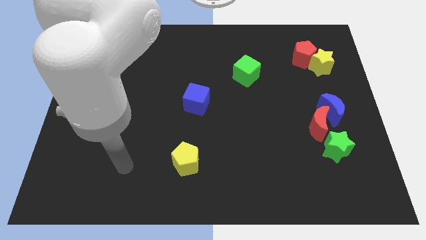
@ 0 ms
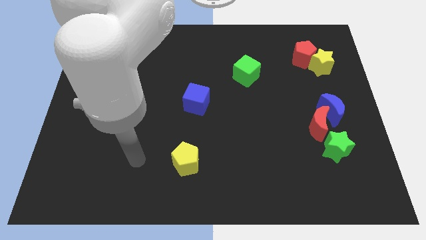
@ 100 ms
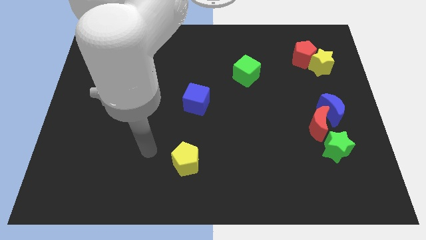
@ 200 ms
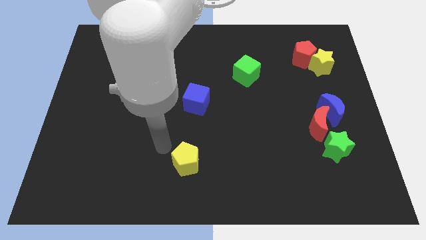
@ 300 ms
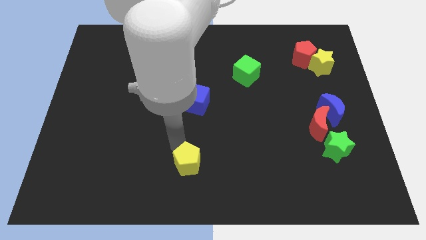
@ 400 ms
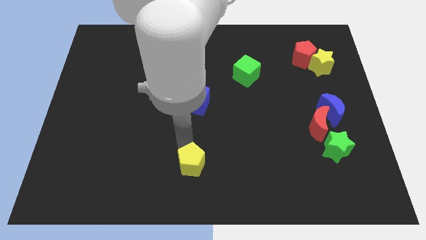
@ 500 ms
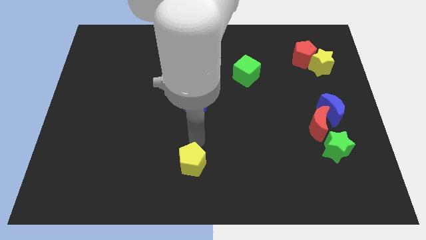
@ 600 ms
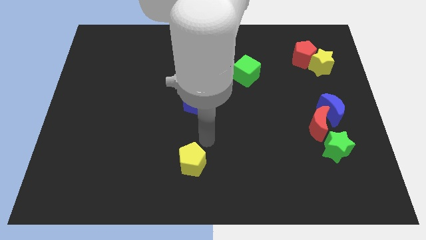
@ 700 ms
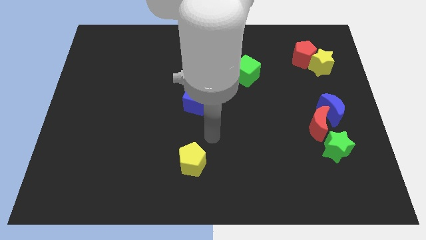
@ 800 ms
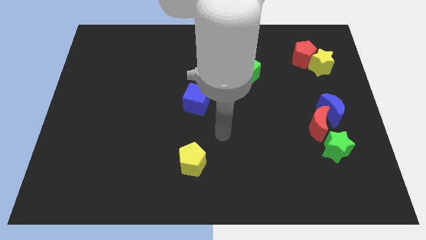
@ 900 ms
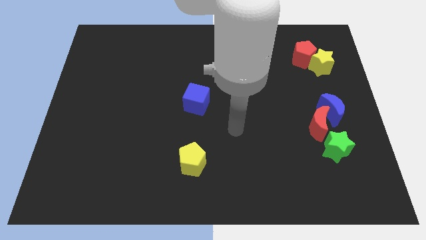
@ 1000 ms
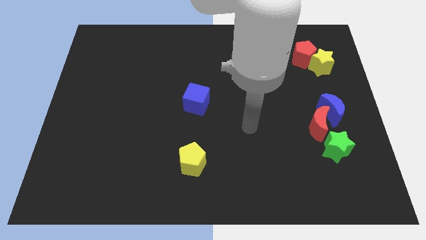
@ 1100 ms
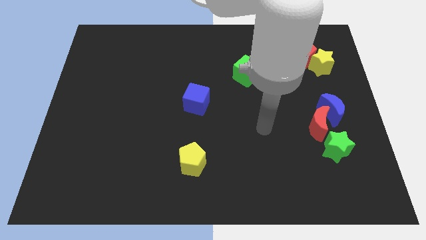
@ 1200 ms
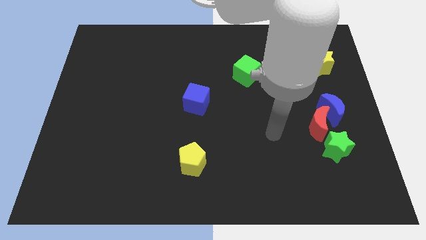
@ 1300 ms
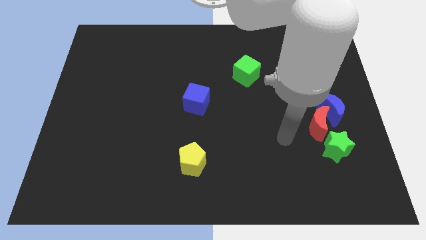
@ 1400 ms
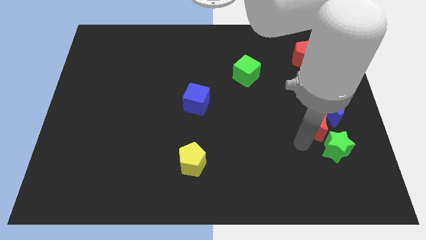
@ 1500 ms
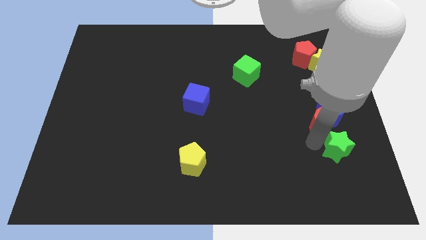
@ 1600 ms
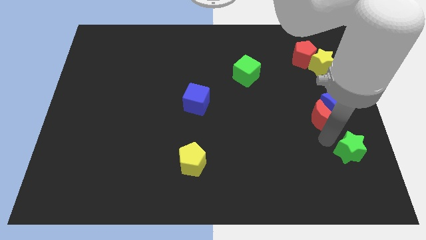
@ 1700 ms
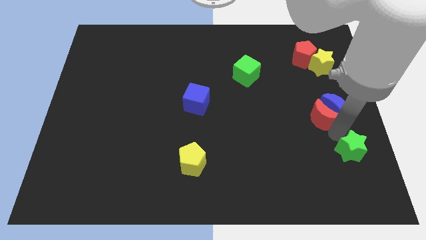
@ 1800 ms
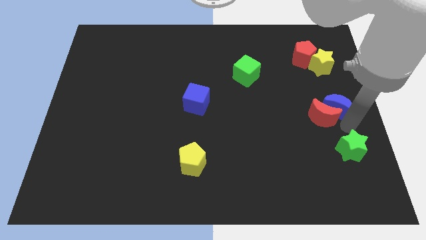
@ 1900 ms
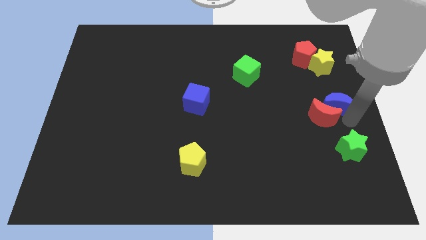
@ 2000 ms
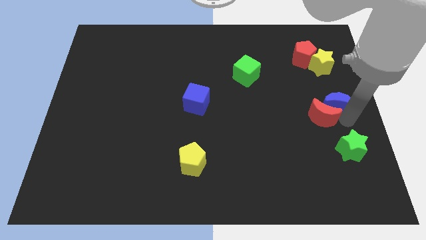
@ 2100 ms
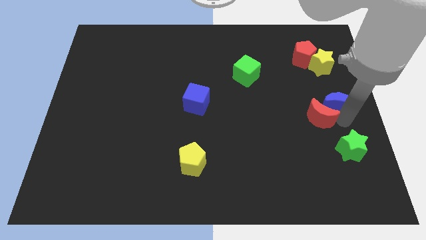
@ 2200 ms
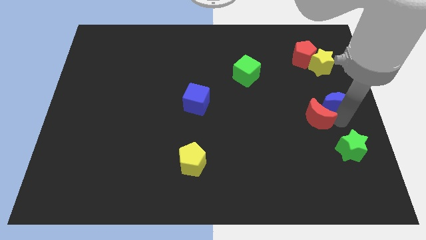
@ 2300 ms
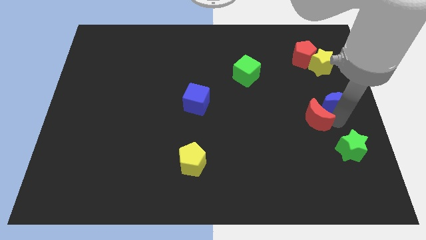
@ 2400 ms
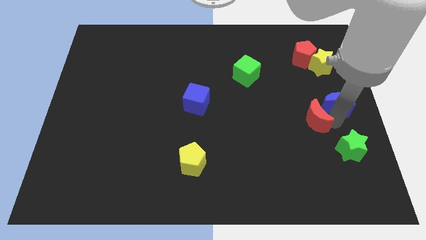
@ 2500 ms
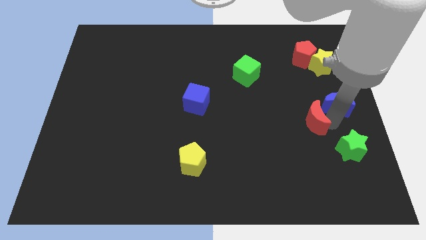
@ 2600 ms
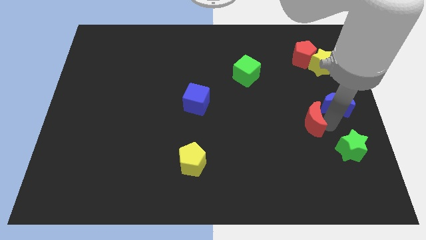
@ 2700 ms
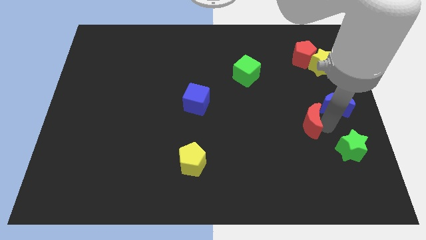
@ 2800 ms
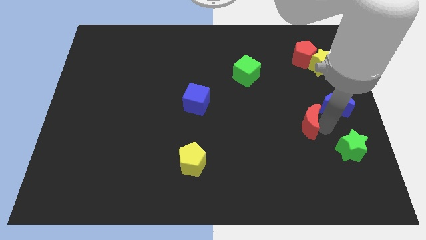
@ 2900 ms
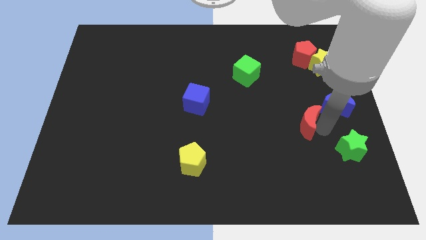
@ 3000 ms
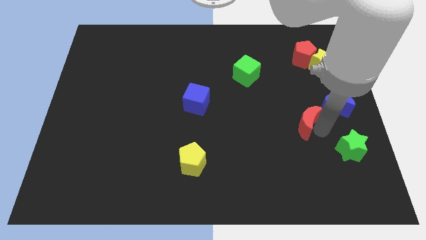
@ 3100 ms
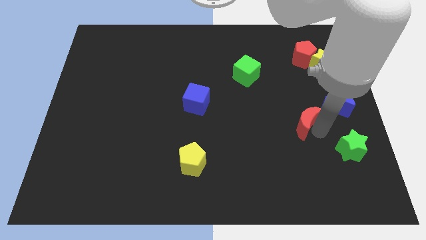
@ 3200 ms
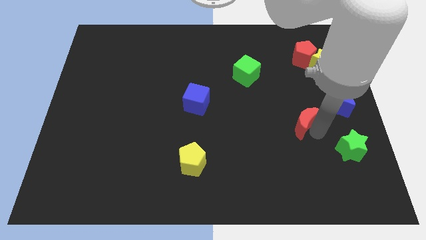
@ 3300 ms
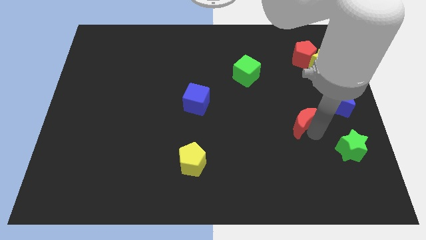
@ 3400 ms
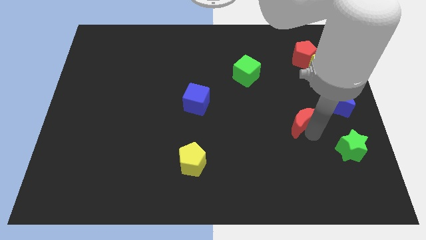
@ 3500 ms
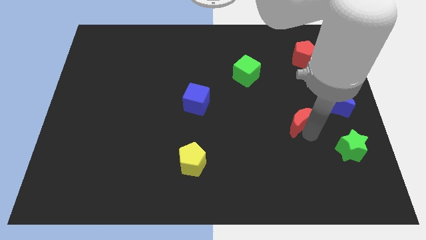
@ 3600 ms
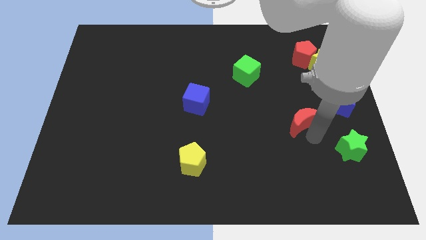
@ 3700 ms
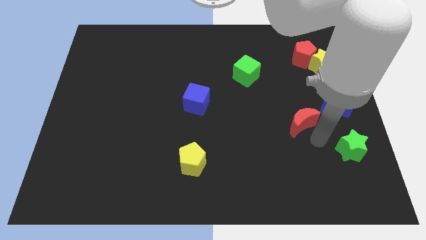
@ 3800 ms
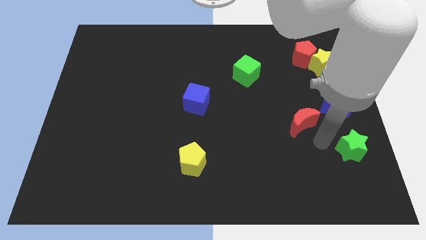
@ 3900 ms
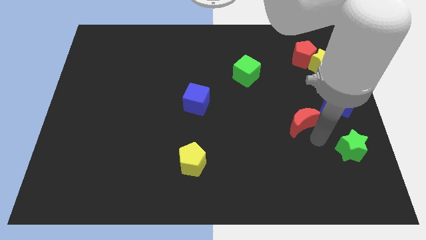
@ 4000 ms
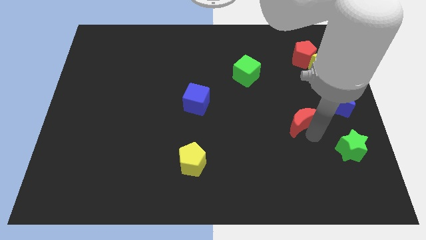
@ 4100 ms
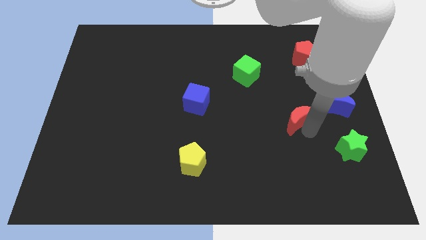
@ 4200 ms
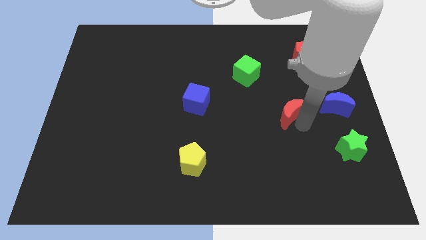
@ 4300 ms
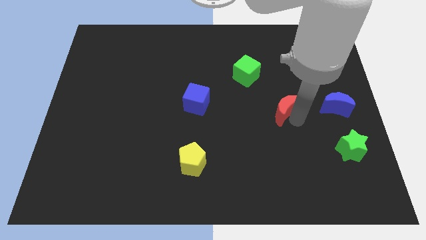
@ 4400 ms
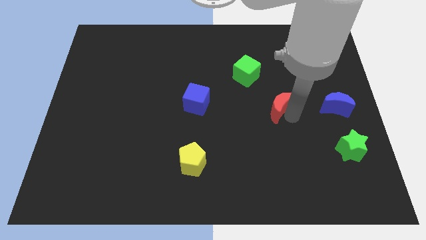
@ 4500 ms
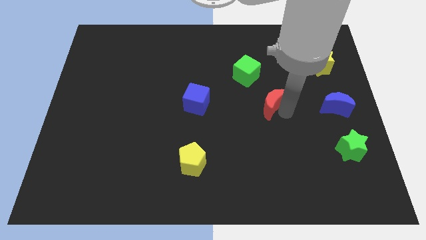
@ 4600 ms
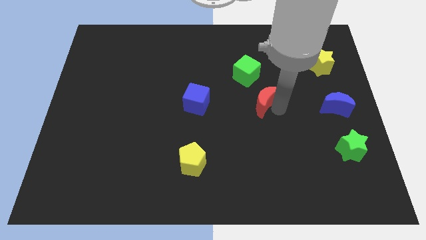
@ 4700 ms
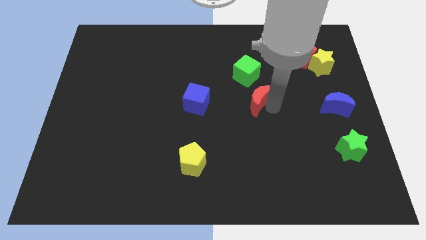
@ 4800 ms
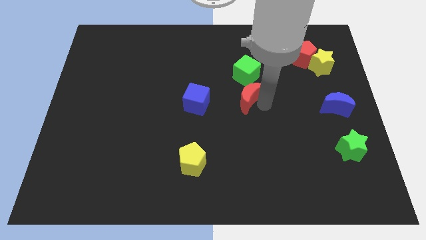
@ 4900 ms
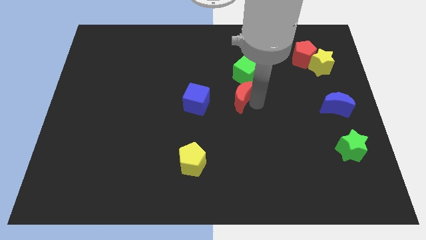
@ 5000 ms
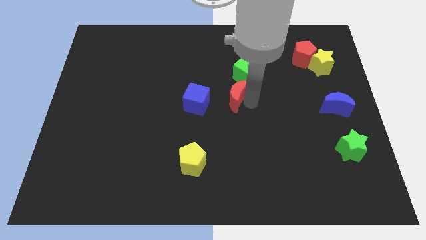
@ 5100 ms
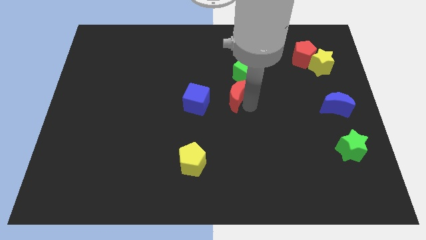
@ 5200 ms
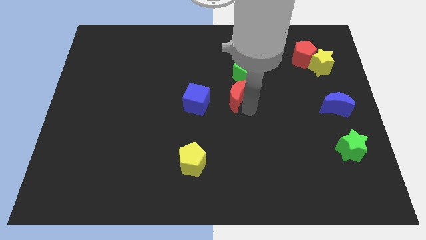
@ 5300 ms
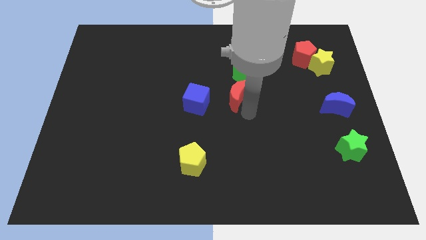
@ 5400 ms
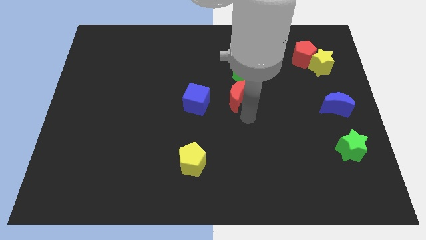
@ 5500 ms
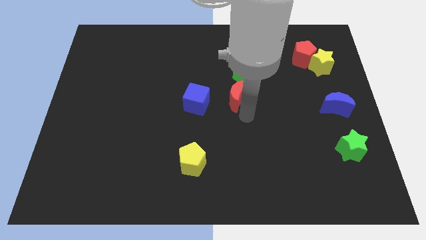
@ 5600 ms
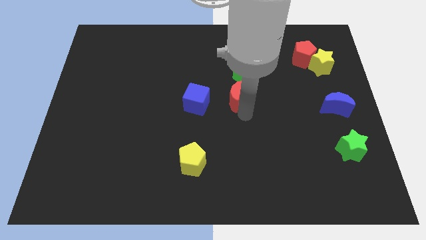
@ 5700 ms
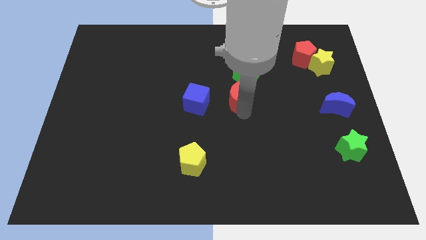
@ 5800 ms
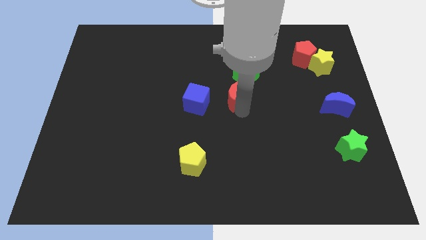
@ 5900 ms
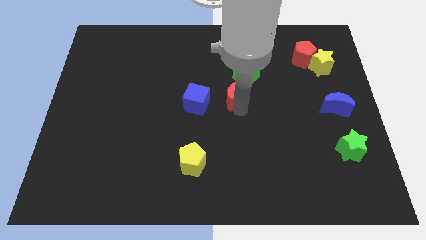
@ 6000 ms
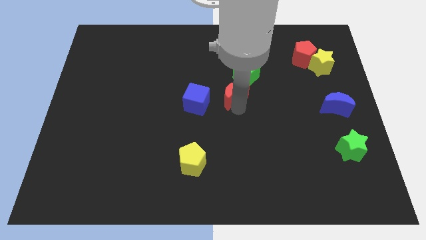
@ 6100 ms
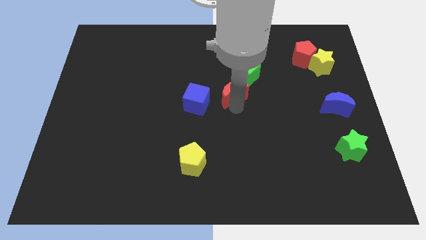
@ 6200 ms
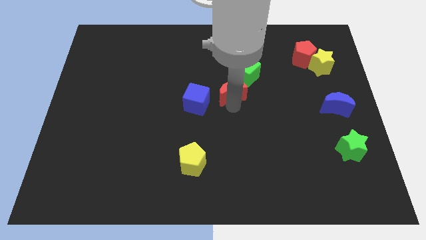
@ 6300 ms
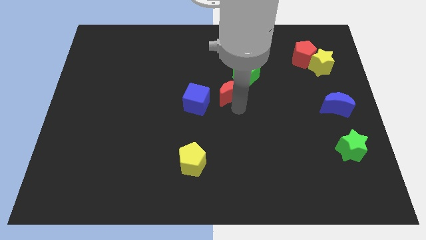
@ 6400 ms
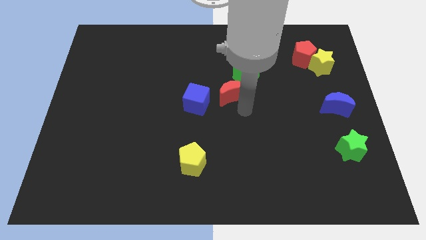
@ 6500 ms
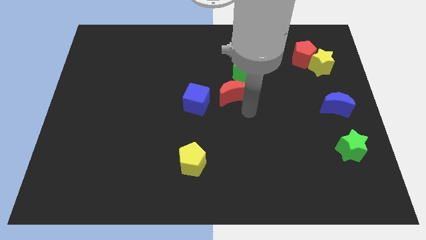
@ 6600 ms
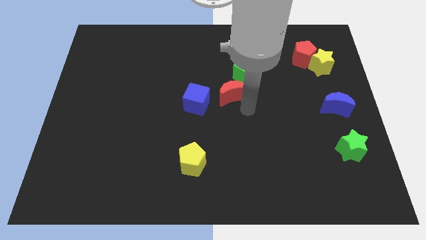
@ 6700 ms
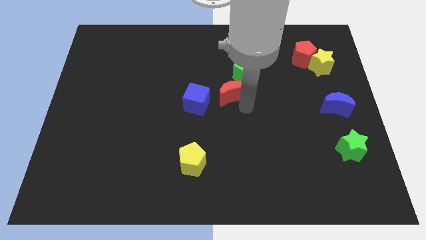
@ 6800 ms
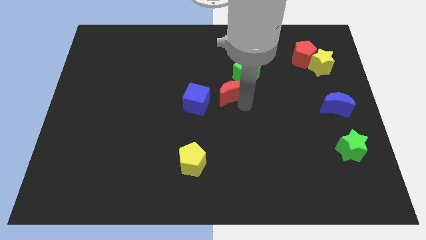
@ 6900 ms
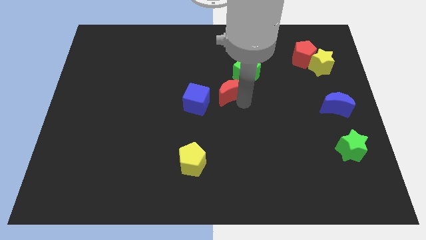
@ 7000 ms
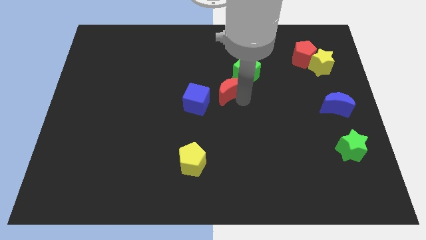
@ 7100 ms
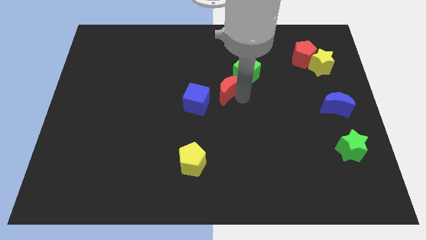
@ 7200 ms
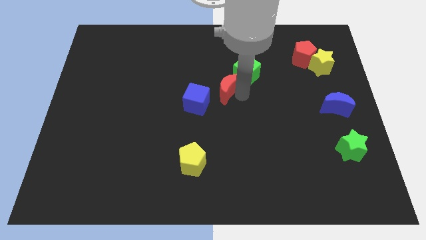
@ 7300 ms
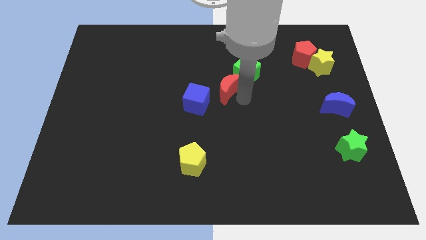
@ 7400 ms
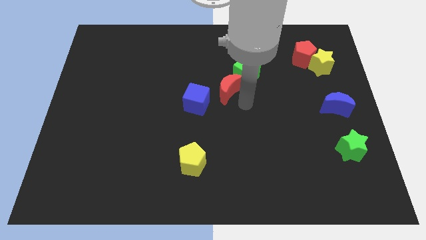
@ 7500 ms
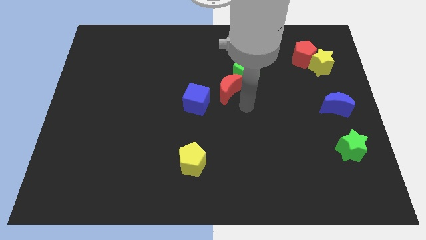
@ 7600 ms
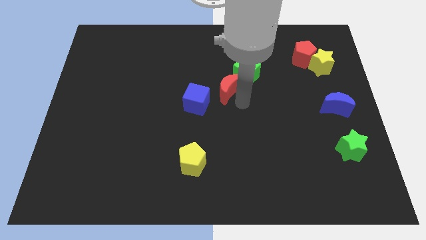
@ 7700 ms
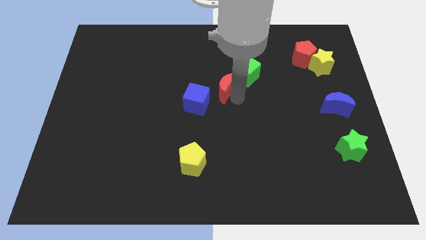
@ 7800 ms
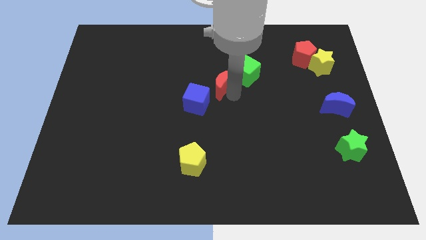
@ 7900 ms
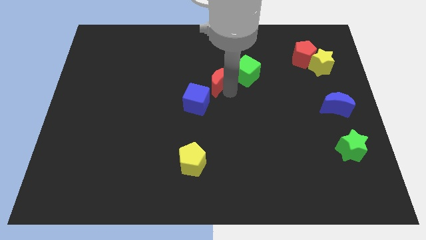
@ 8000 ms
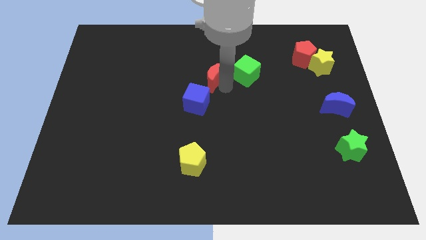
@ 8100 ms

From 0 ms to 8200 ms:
slide the red moon above the blue cube
